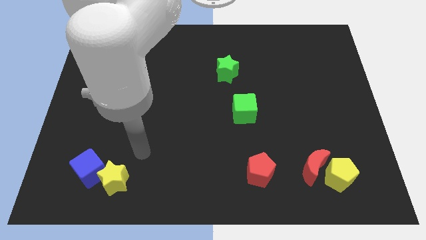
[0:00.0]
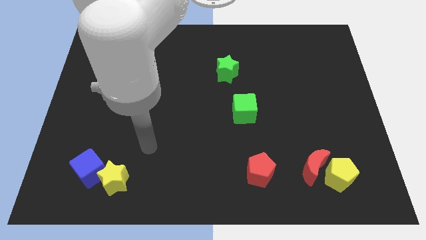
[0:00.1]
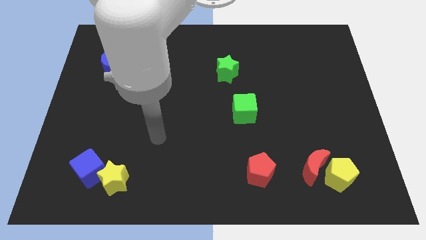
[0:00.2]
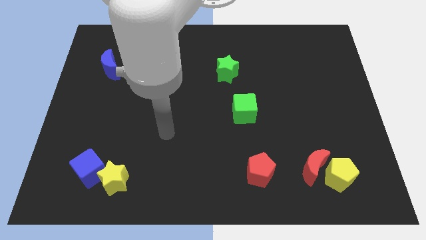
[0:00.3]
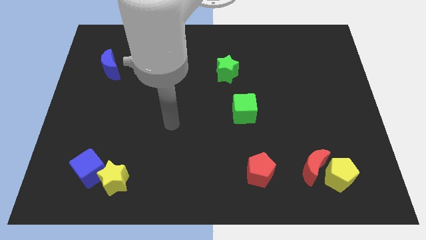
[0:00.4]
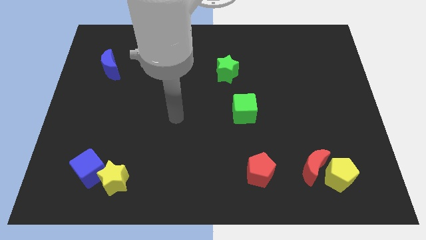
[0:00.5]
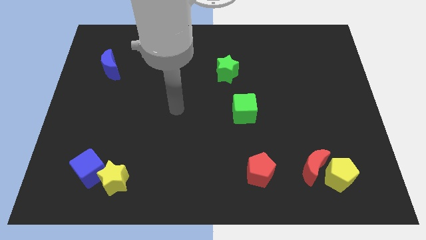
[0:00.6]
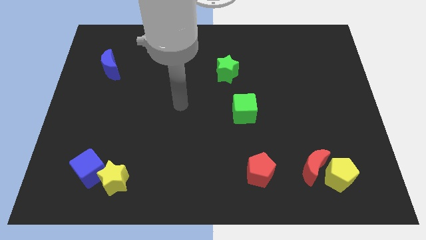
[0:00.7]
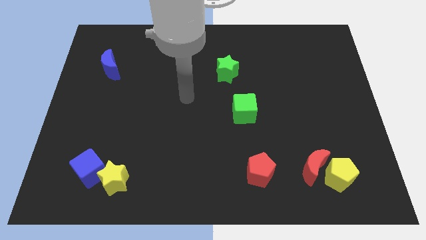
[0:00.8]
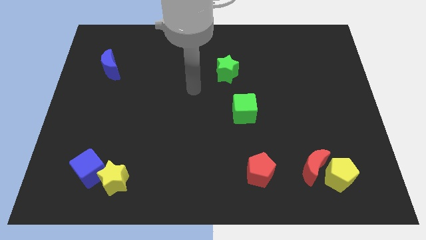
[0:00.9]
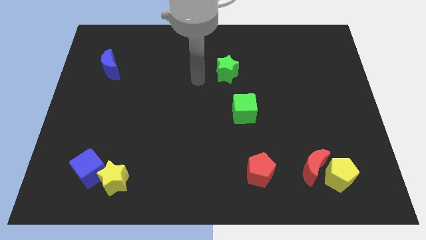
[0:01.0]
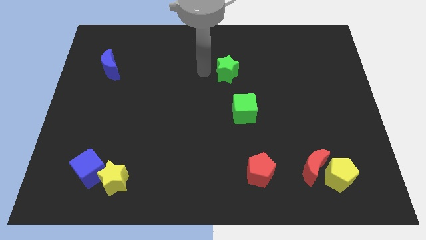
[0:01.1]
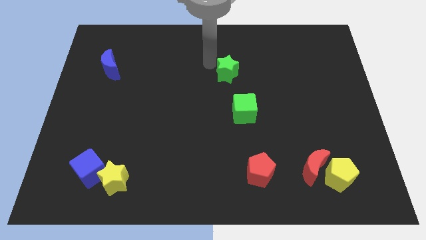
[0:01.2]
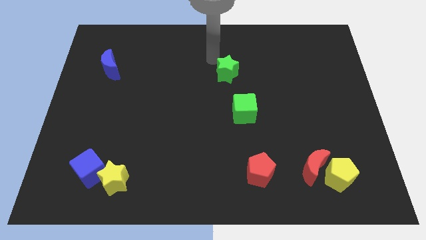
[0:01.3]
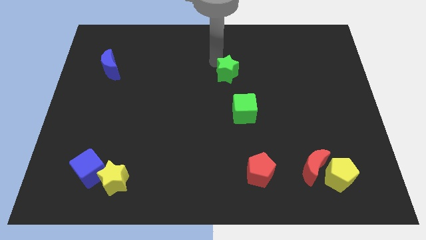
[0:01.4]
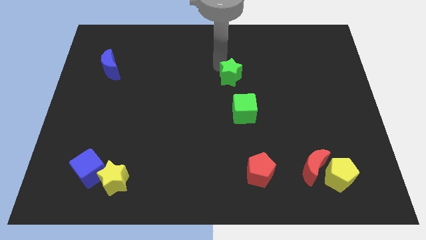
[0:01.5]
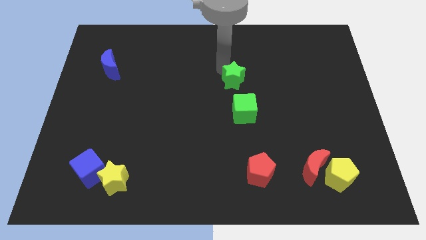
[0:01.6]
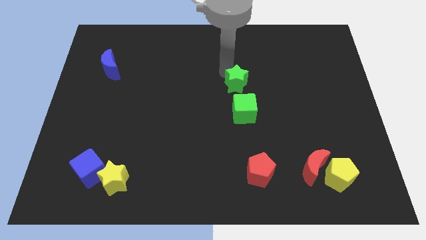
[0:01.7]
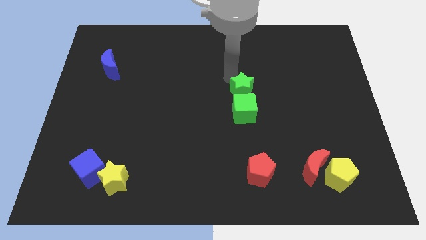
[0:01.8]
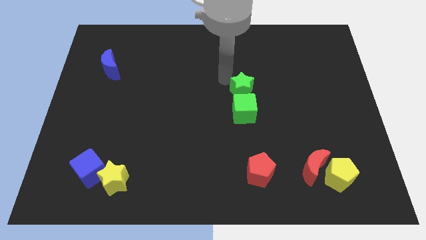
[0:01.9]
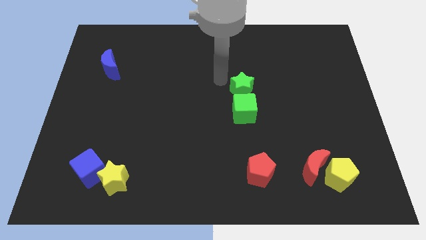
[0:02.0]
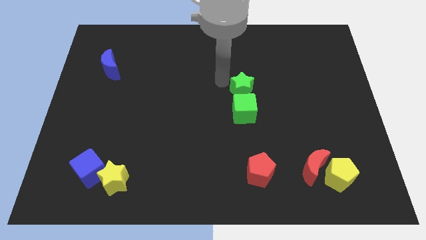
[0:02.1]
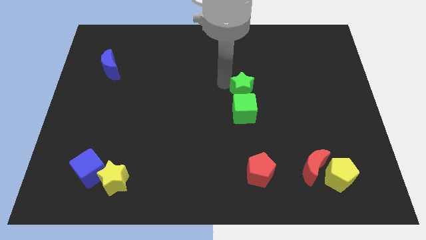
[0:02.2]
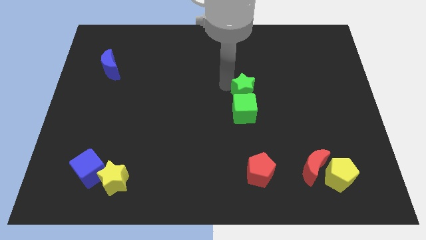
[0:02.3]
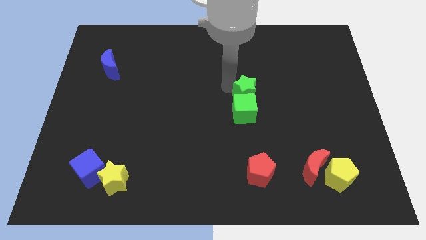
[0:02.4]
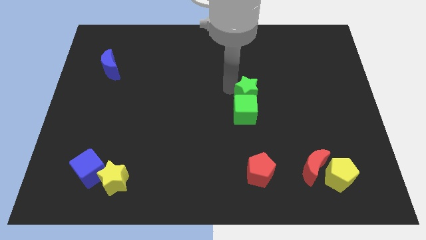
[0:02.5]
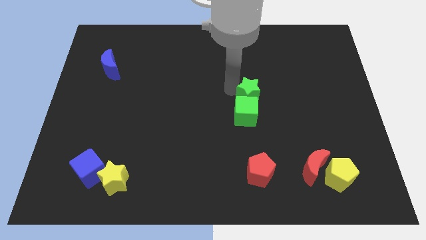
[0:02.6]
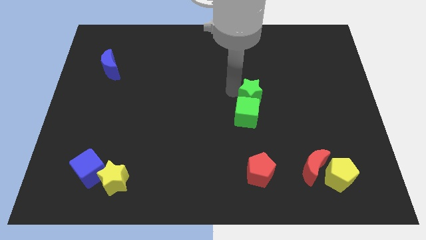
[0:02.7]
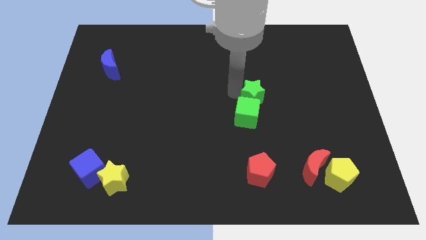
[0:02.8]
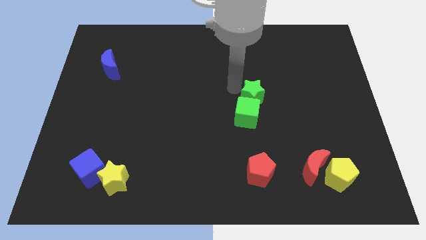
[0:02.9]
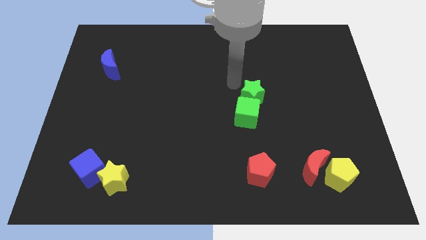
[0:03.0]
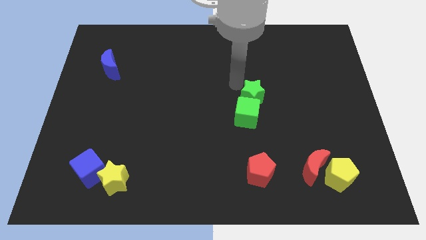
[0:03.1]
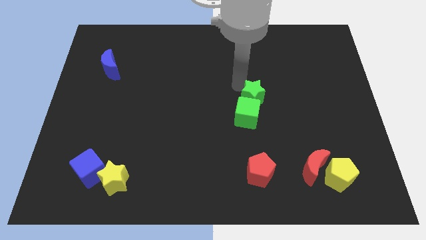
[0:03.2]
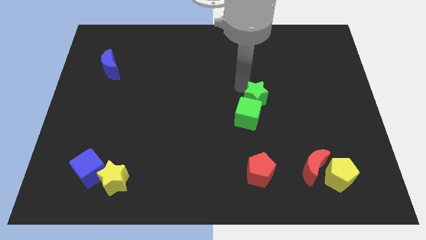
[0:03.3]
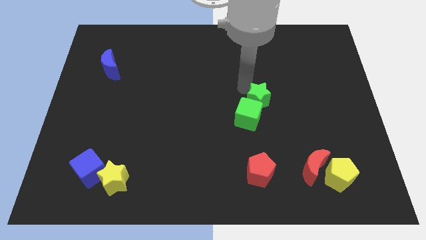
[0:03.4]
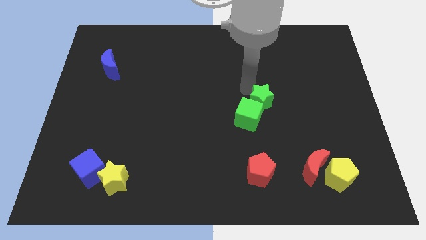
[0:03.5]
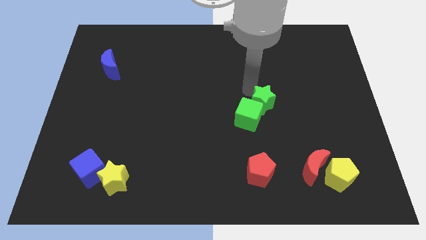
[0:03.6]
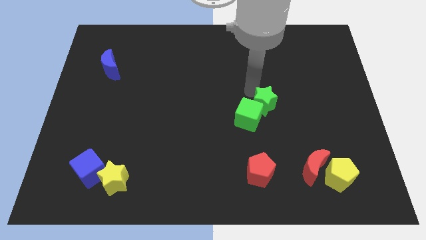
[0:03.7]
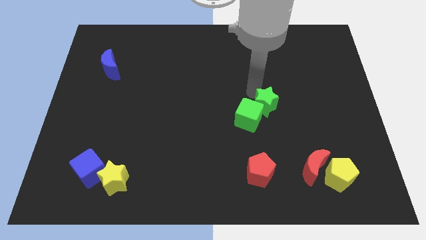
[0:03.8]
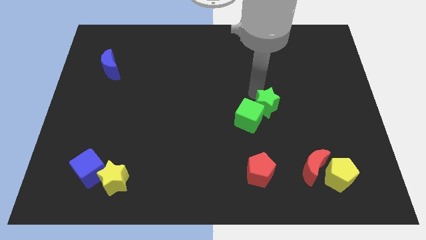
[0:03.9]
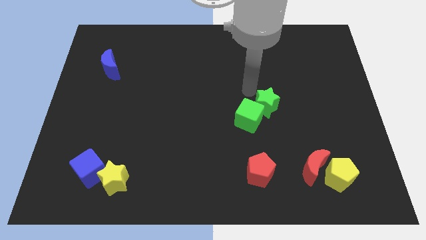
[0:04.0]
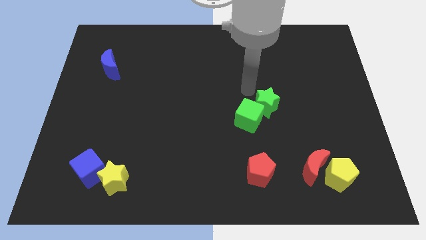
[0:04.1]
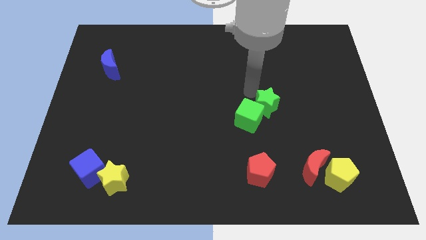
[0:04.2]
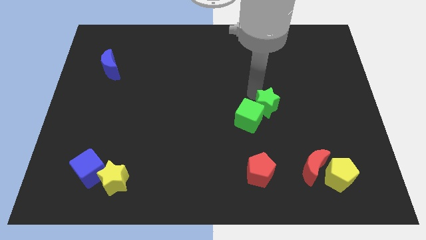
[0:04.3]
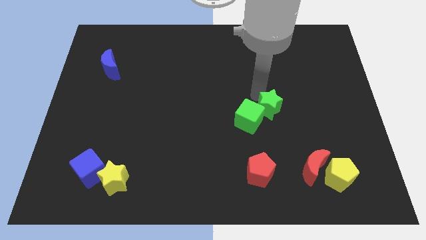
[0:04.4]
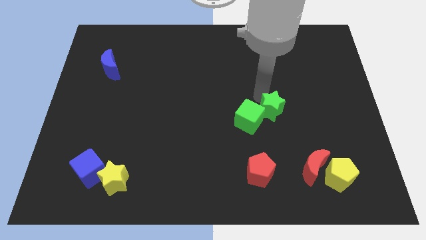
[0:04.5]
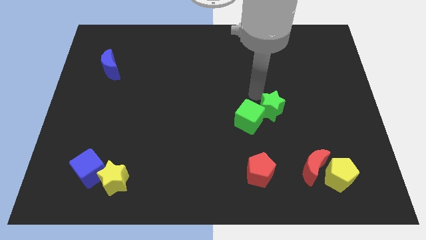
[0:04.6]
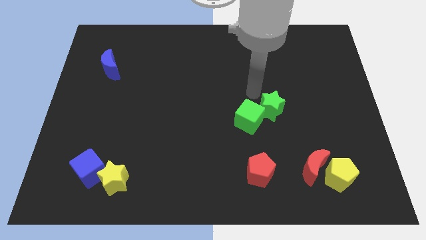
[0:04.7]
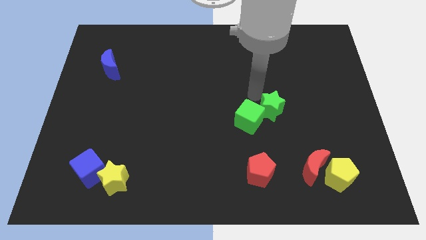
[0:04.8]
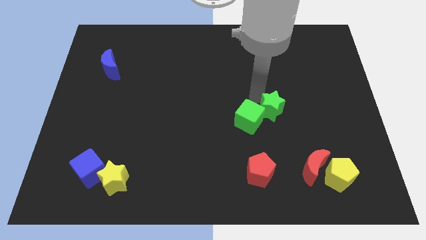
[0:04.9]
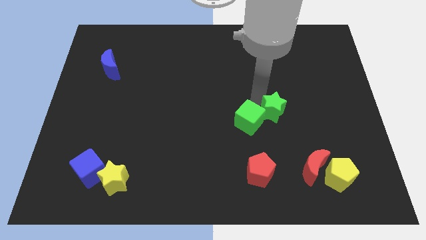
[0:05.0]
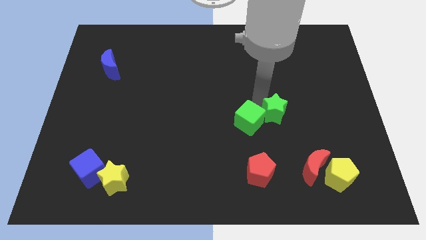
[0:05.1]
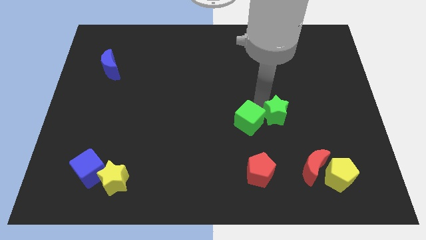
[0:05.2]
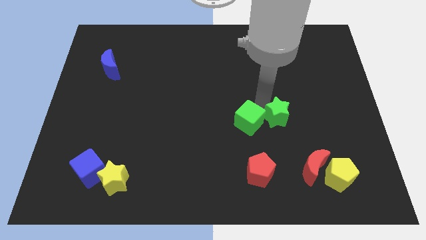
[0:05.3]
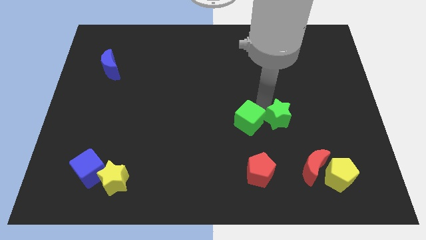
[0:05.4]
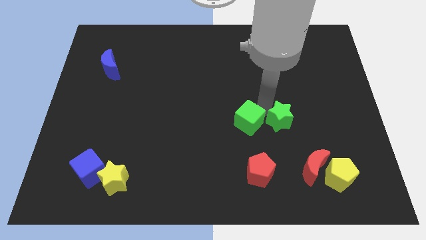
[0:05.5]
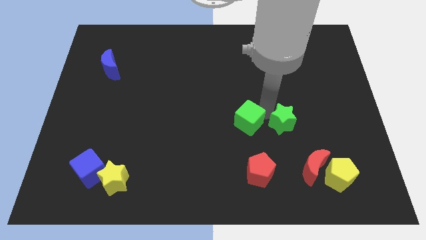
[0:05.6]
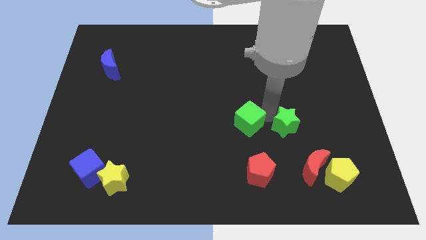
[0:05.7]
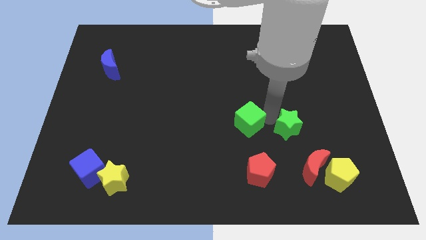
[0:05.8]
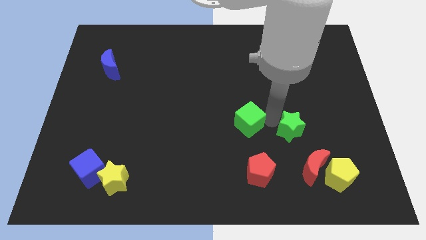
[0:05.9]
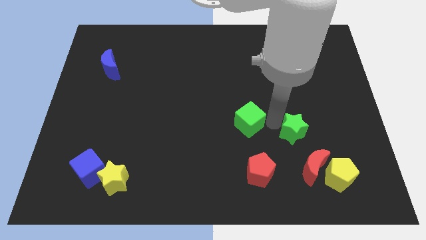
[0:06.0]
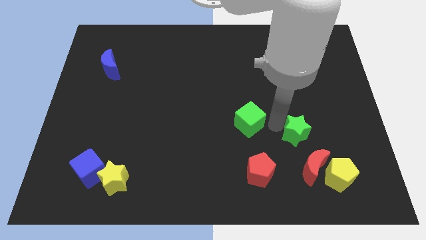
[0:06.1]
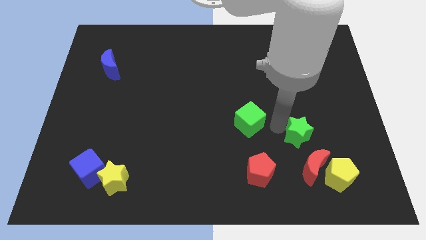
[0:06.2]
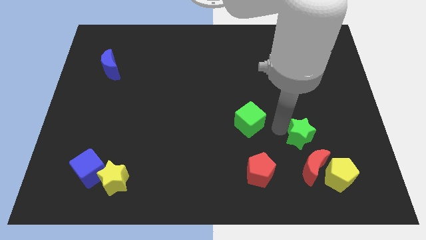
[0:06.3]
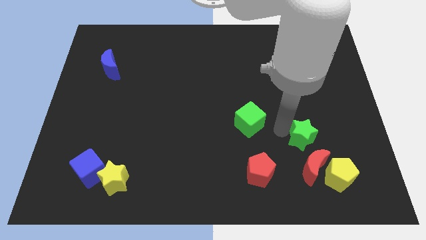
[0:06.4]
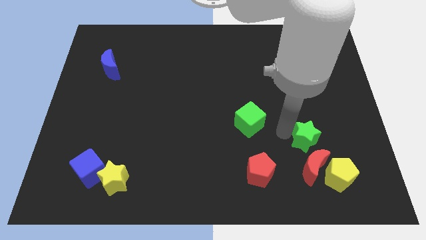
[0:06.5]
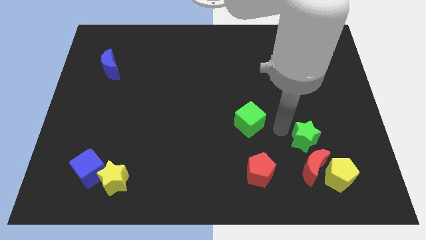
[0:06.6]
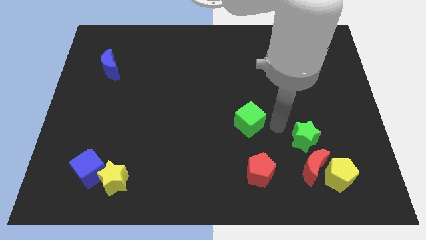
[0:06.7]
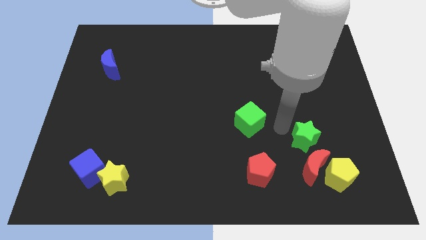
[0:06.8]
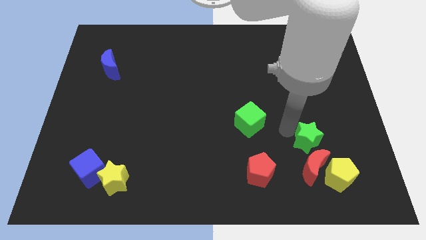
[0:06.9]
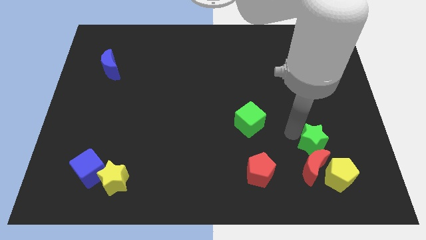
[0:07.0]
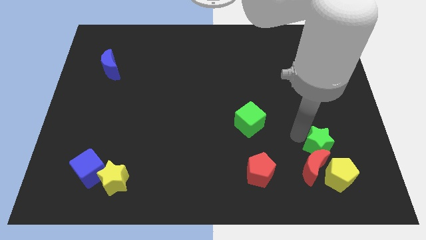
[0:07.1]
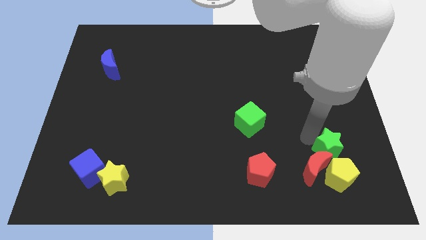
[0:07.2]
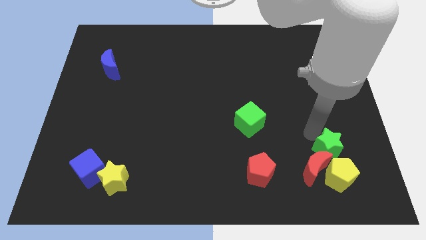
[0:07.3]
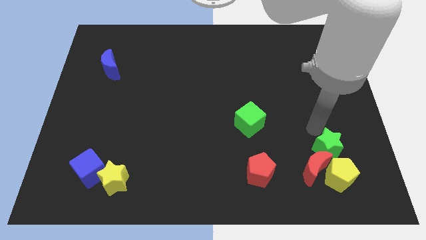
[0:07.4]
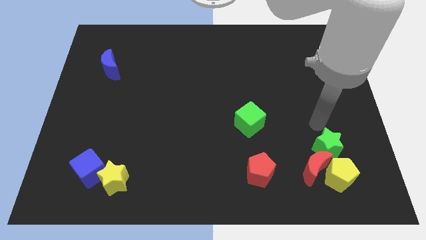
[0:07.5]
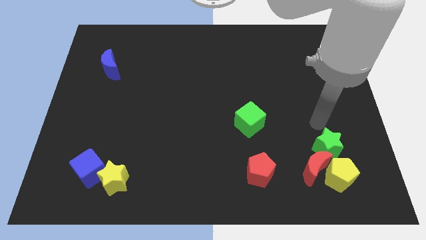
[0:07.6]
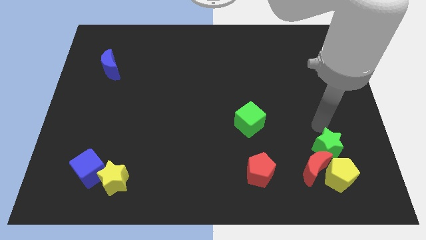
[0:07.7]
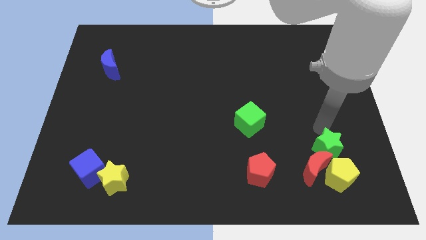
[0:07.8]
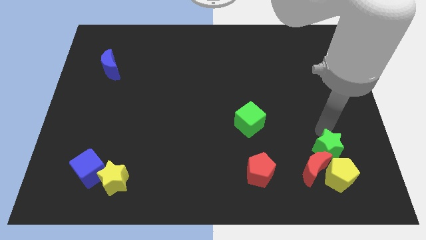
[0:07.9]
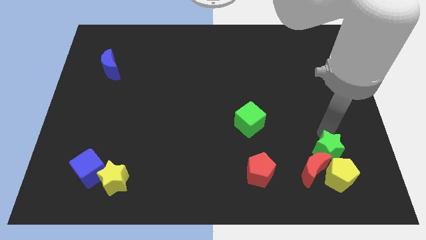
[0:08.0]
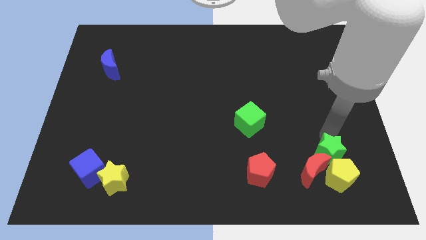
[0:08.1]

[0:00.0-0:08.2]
push the green star next to the yellow pentagon

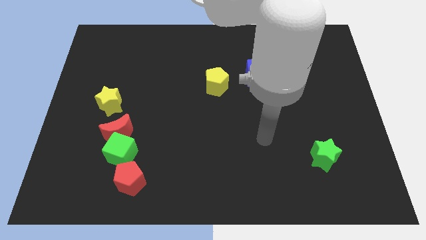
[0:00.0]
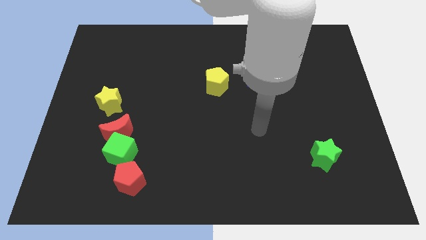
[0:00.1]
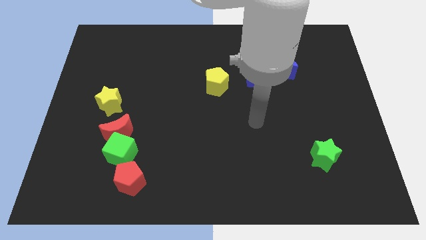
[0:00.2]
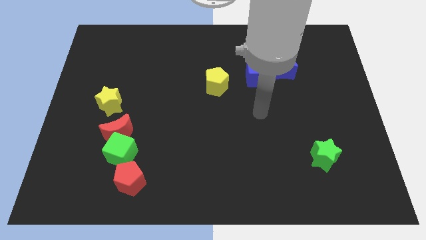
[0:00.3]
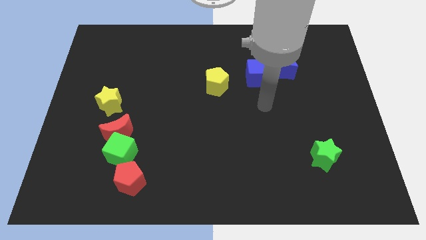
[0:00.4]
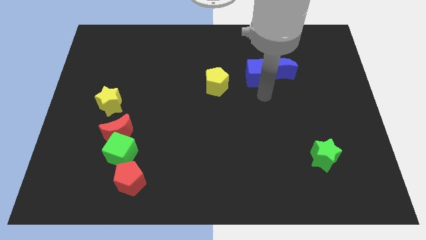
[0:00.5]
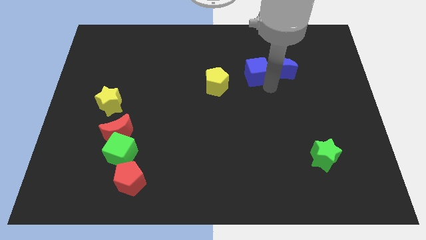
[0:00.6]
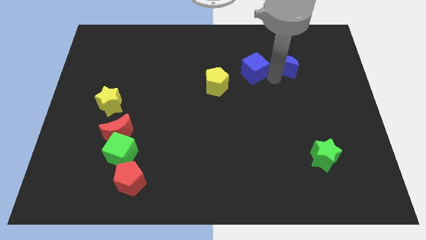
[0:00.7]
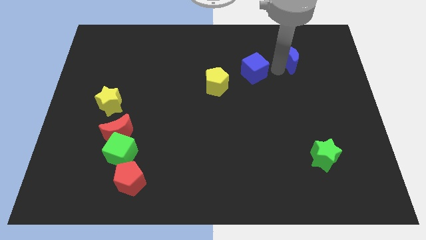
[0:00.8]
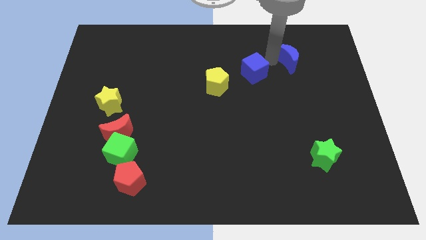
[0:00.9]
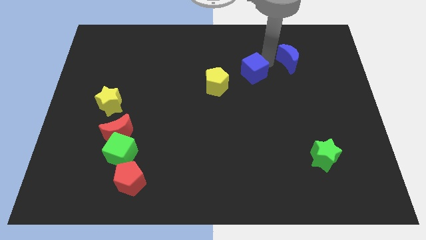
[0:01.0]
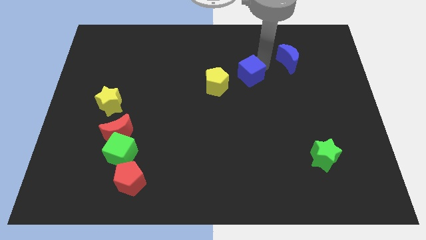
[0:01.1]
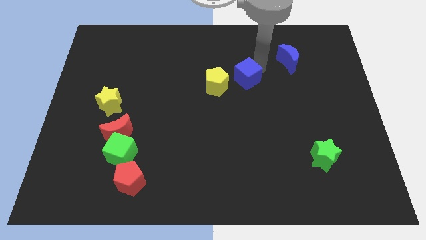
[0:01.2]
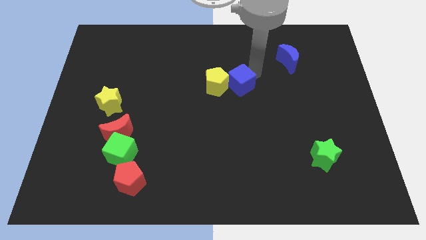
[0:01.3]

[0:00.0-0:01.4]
push the blue cube next to the yellow pentagon
